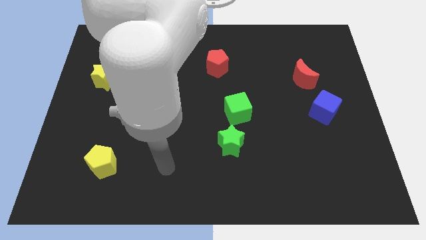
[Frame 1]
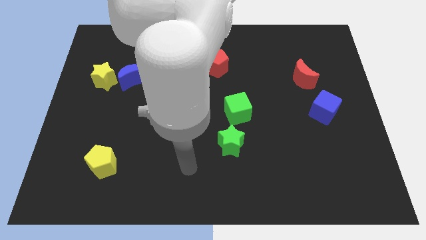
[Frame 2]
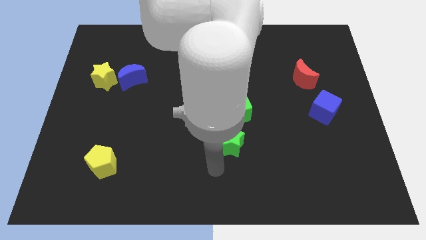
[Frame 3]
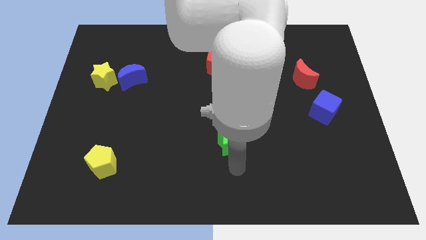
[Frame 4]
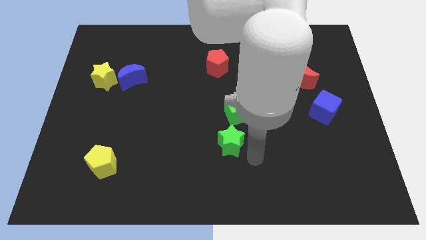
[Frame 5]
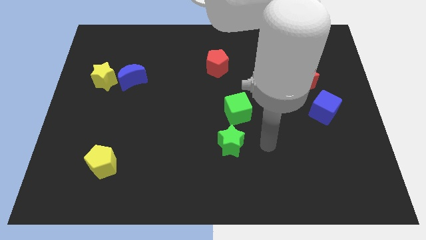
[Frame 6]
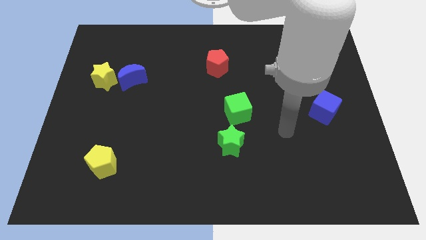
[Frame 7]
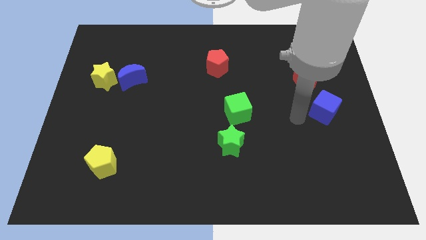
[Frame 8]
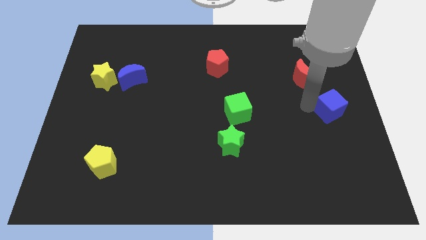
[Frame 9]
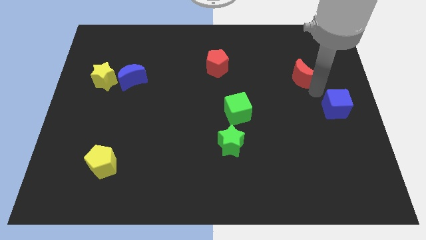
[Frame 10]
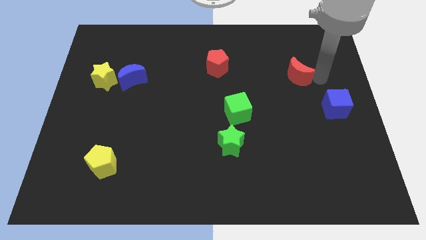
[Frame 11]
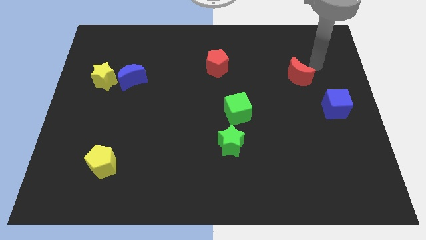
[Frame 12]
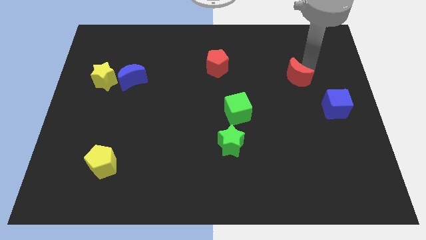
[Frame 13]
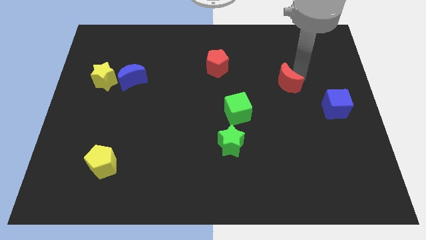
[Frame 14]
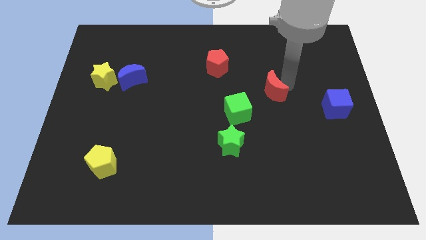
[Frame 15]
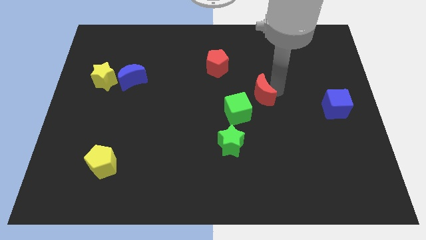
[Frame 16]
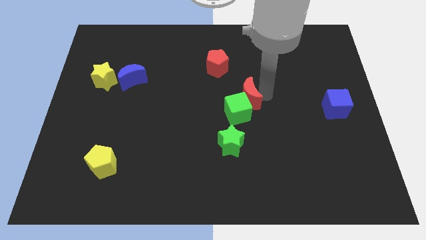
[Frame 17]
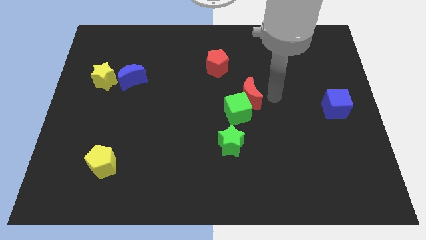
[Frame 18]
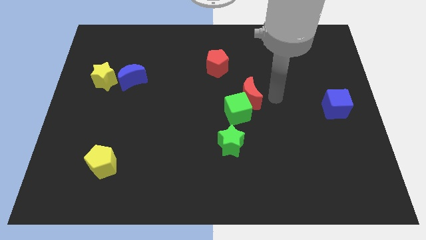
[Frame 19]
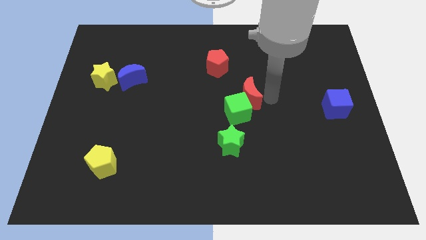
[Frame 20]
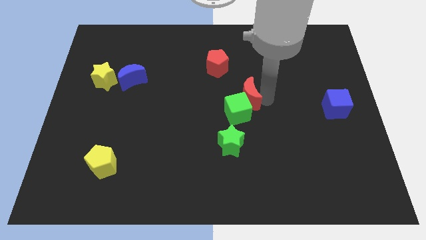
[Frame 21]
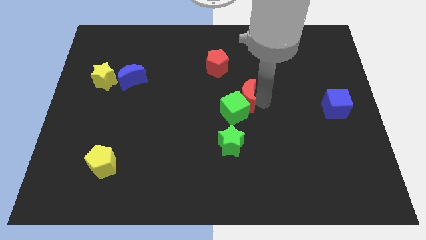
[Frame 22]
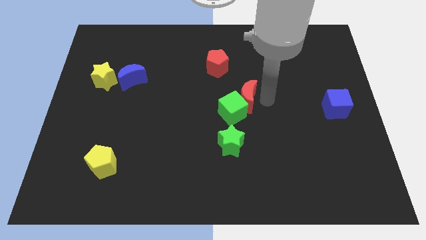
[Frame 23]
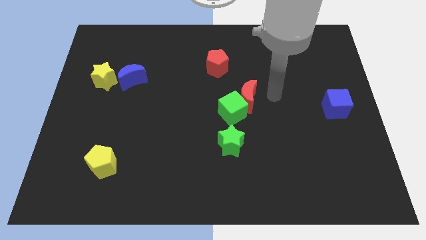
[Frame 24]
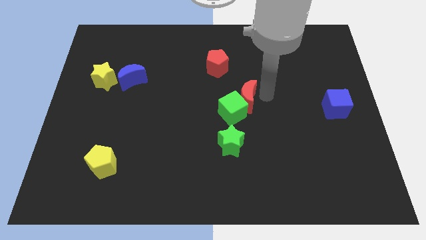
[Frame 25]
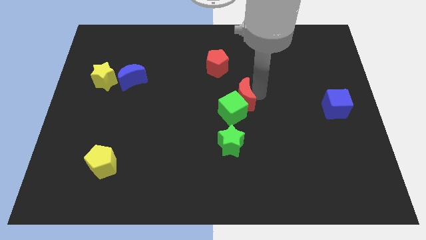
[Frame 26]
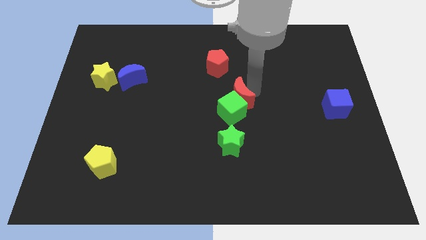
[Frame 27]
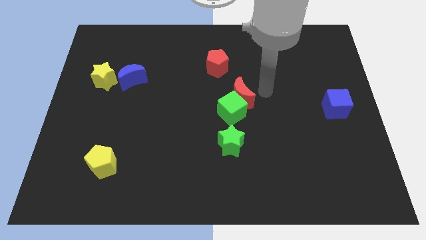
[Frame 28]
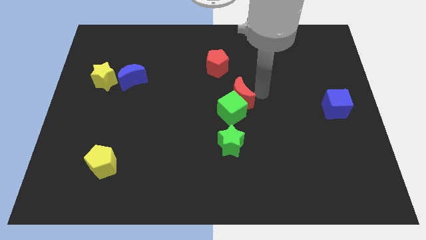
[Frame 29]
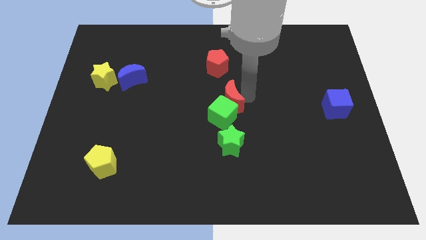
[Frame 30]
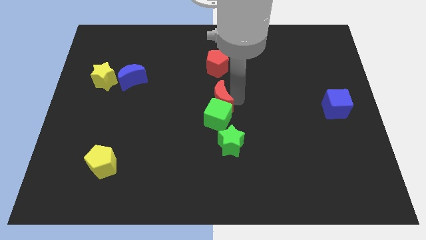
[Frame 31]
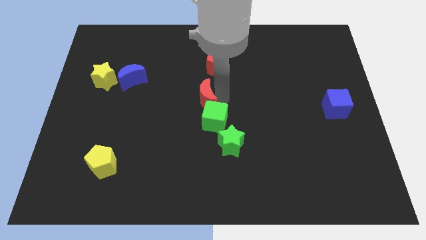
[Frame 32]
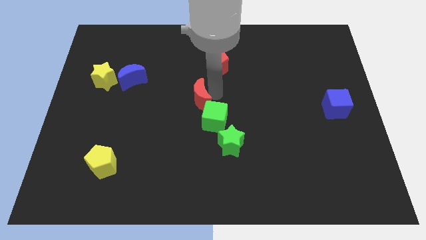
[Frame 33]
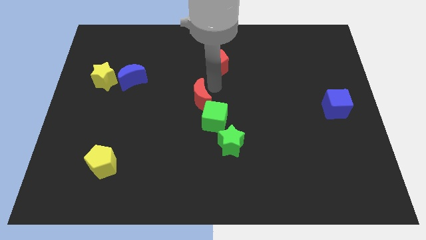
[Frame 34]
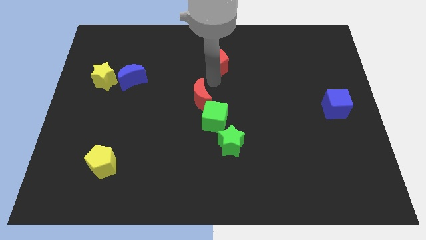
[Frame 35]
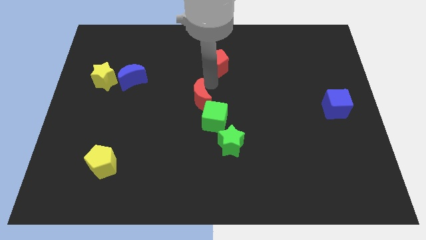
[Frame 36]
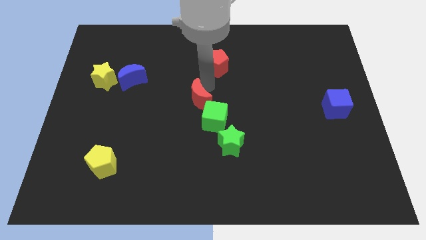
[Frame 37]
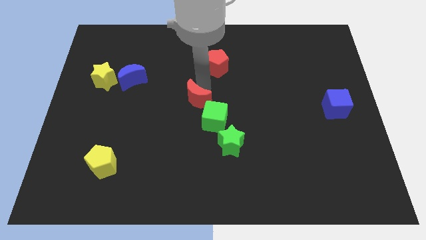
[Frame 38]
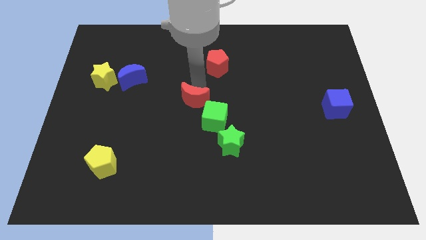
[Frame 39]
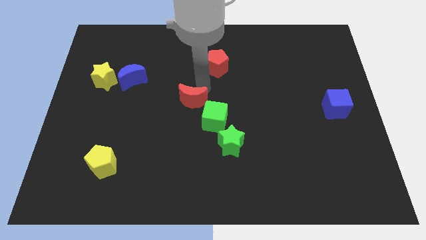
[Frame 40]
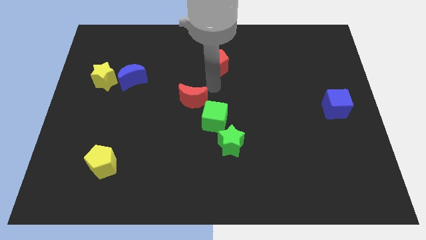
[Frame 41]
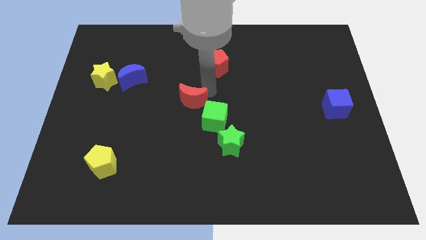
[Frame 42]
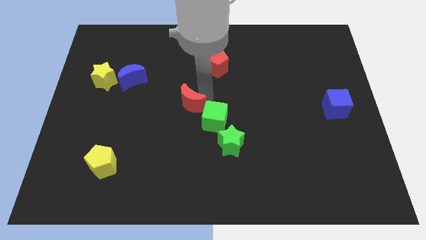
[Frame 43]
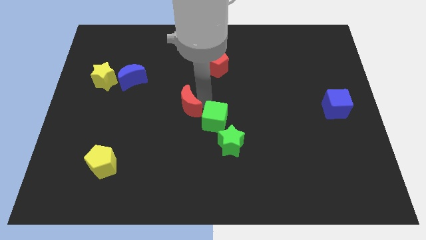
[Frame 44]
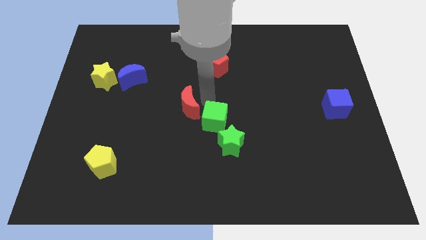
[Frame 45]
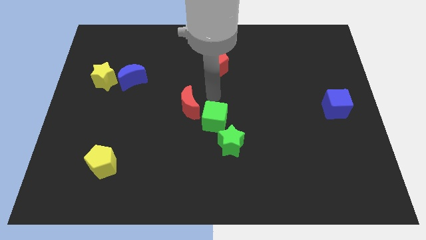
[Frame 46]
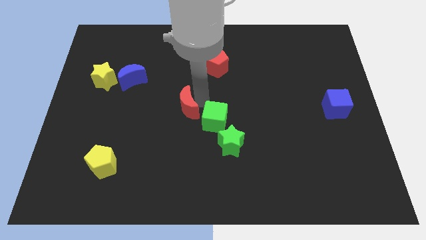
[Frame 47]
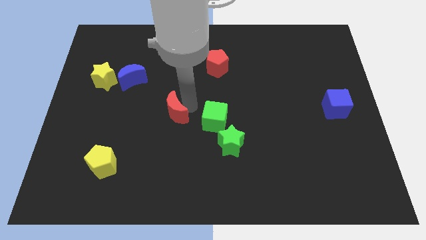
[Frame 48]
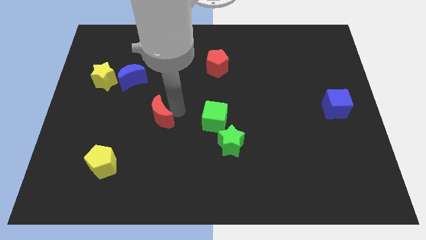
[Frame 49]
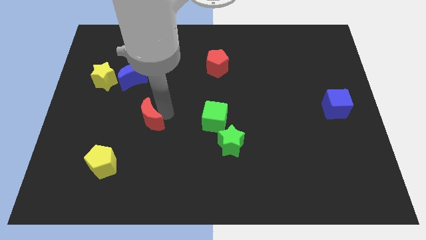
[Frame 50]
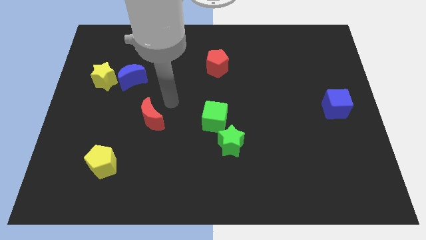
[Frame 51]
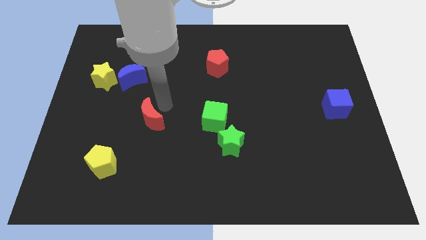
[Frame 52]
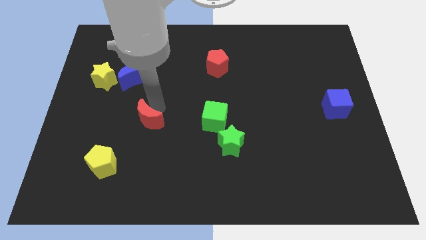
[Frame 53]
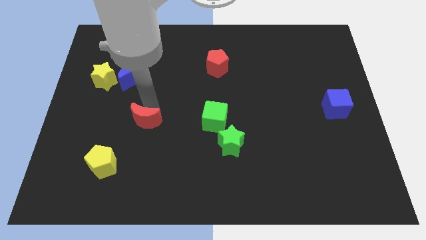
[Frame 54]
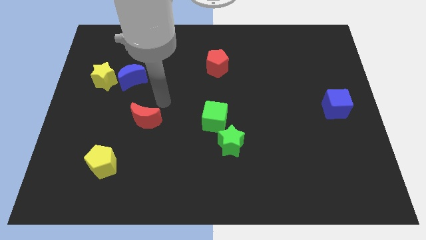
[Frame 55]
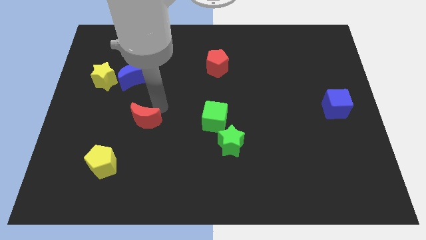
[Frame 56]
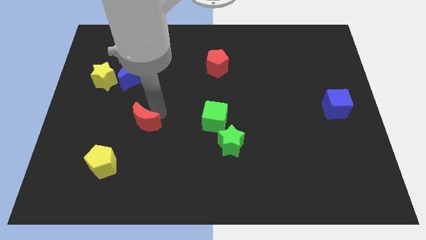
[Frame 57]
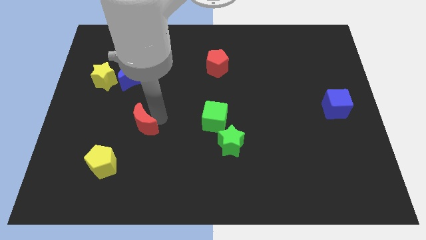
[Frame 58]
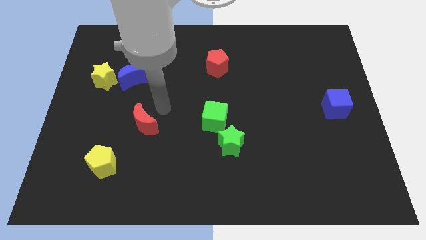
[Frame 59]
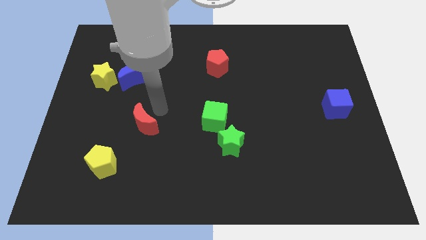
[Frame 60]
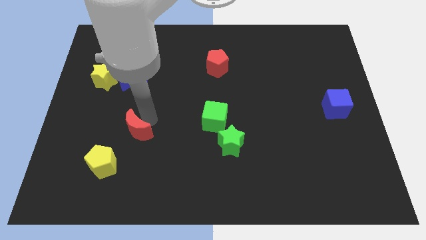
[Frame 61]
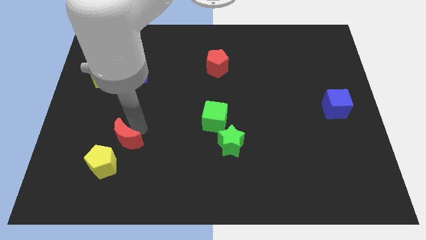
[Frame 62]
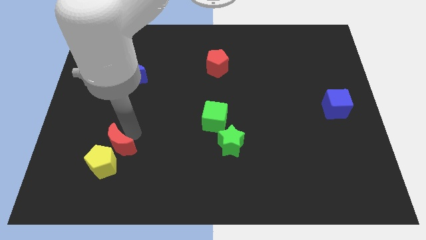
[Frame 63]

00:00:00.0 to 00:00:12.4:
move the red moon next to the yellow pentagon

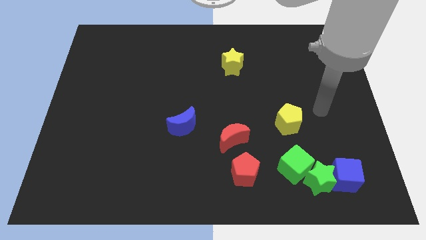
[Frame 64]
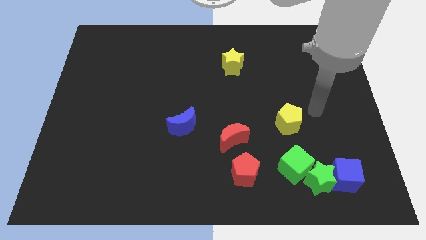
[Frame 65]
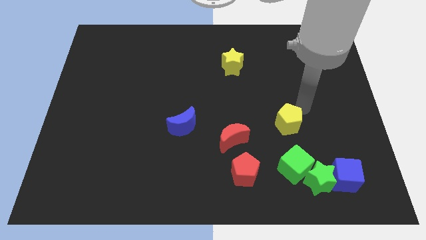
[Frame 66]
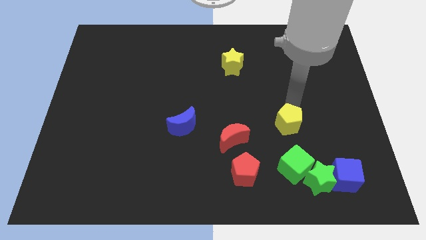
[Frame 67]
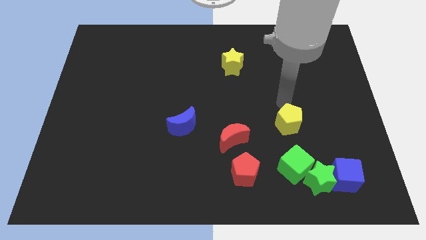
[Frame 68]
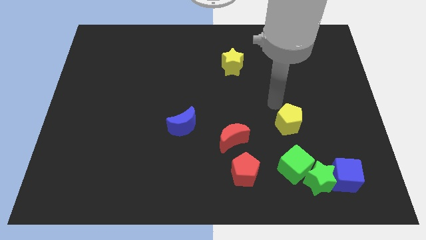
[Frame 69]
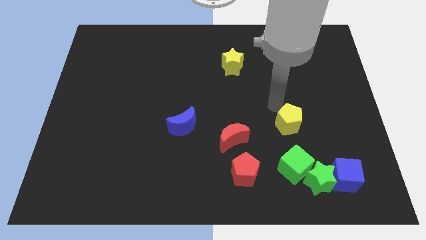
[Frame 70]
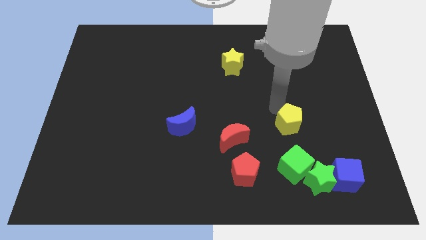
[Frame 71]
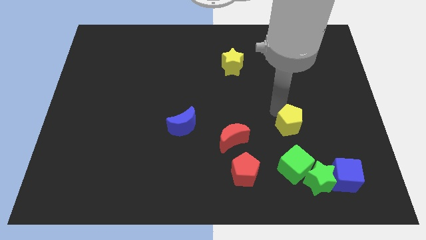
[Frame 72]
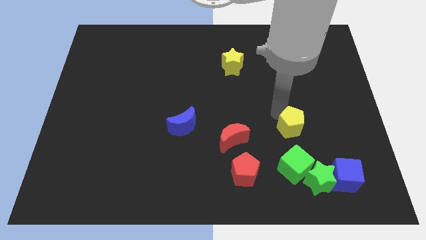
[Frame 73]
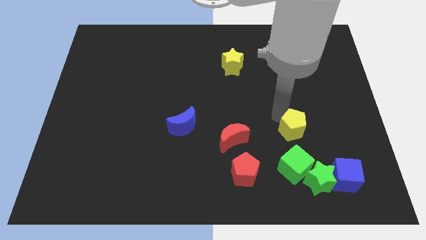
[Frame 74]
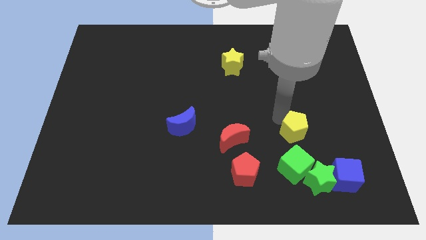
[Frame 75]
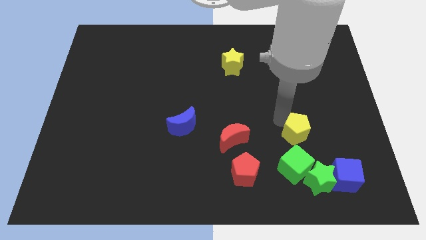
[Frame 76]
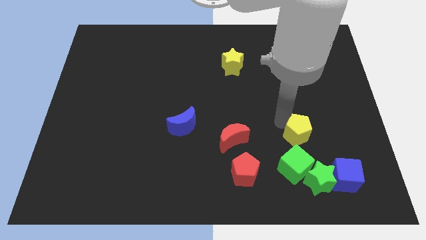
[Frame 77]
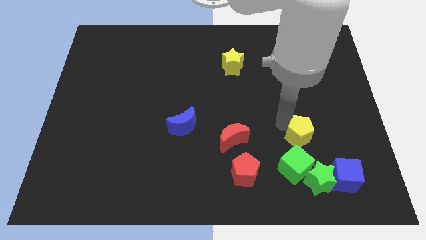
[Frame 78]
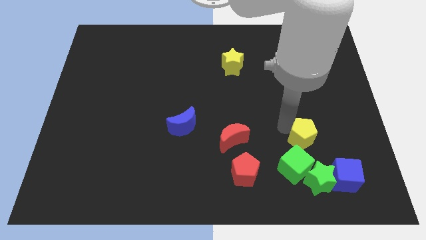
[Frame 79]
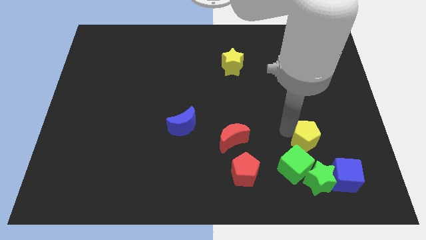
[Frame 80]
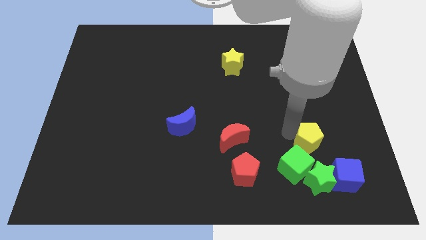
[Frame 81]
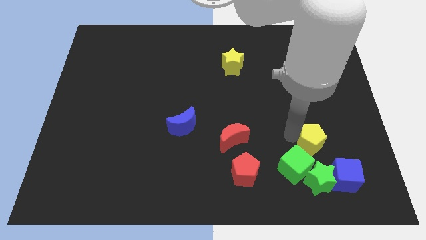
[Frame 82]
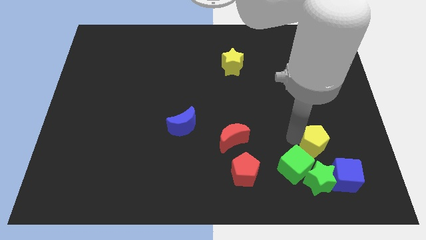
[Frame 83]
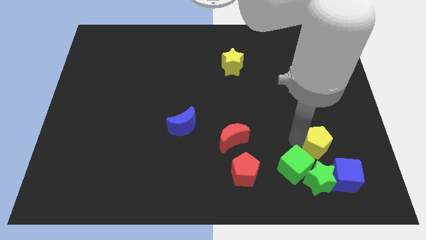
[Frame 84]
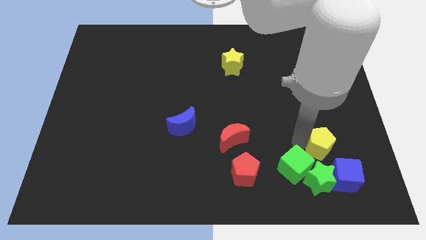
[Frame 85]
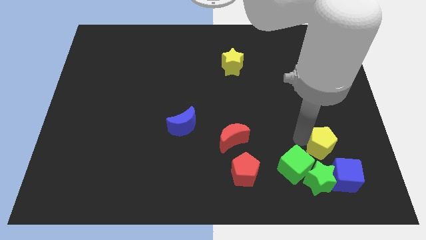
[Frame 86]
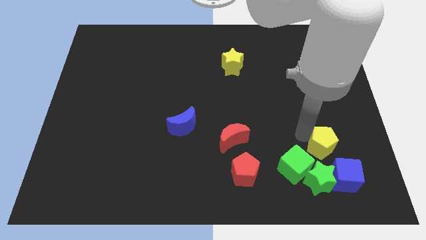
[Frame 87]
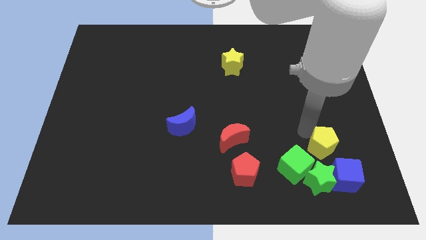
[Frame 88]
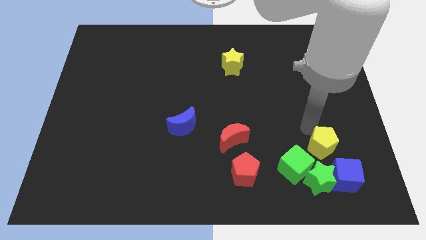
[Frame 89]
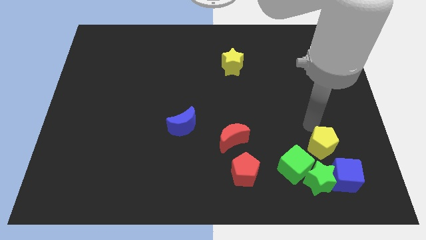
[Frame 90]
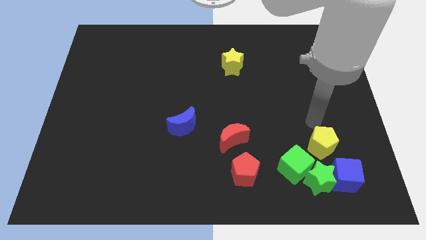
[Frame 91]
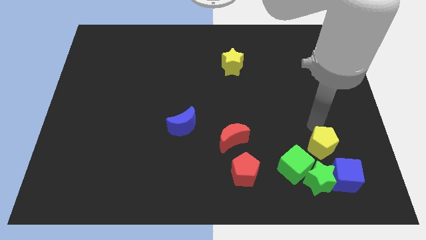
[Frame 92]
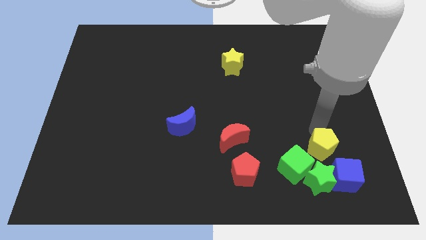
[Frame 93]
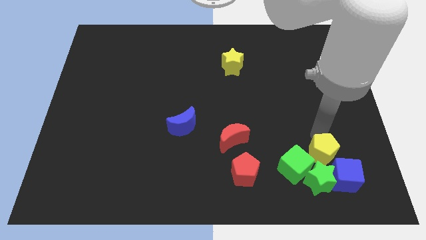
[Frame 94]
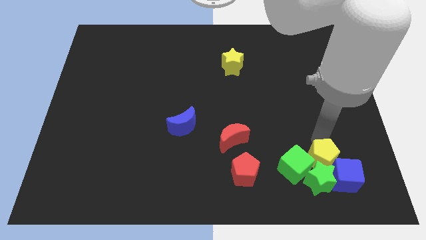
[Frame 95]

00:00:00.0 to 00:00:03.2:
move the yellow pentagon close to the blue cube
